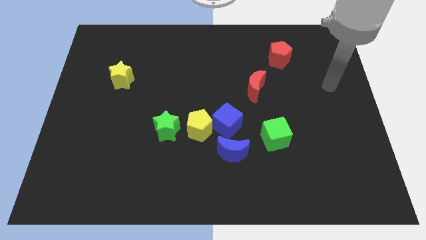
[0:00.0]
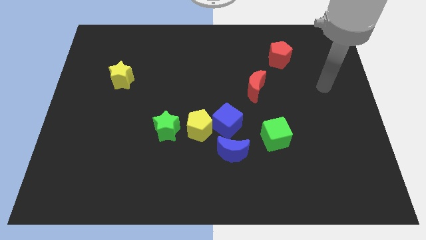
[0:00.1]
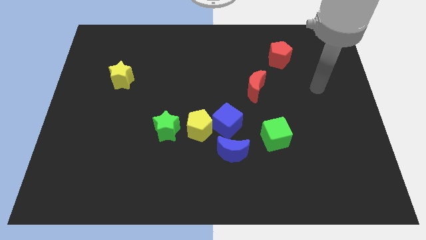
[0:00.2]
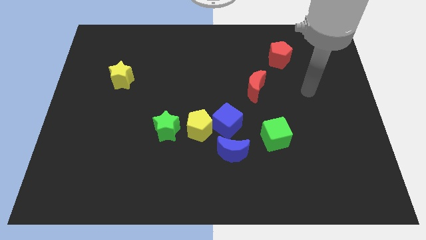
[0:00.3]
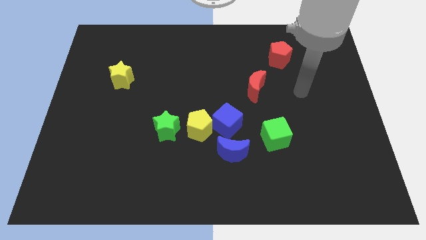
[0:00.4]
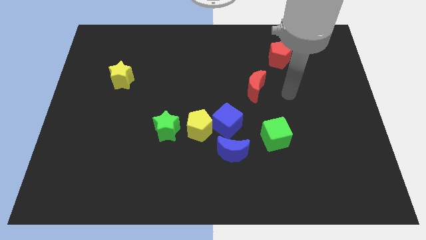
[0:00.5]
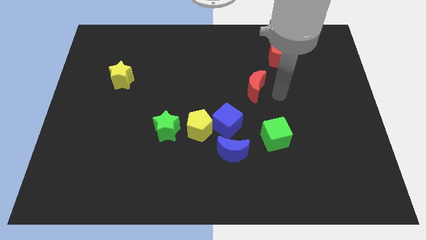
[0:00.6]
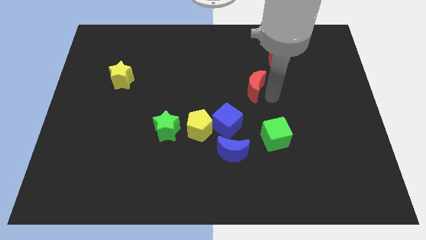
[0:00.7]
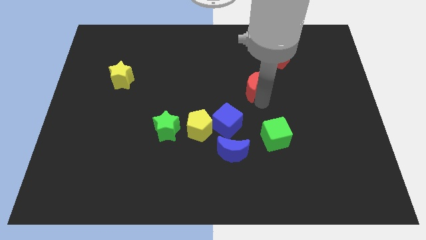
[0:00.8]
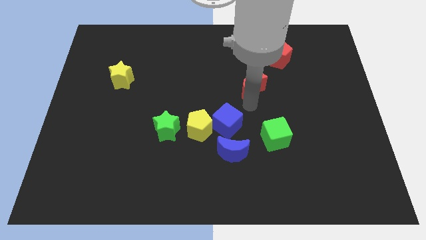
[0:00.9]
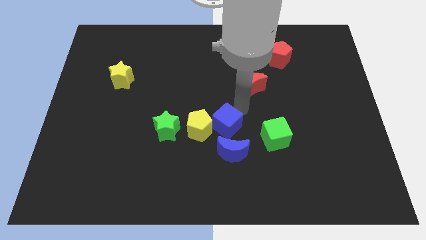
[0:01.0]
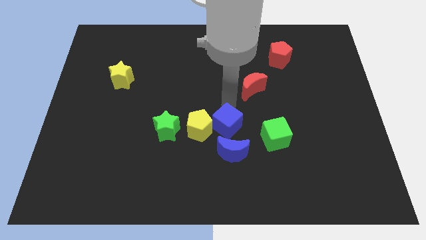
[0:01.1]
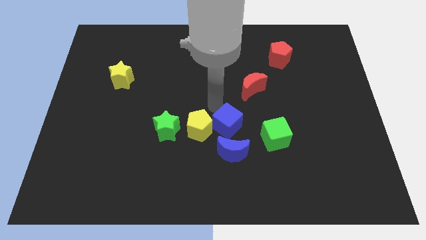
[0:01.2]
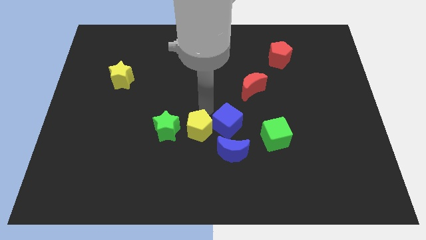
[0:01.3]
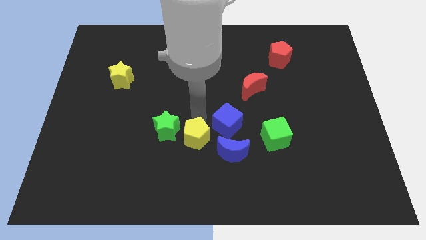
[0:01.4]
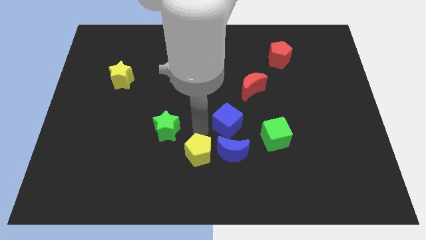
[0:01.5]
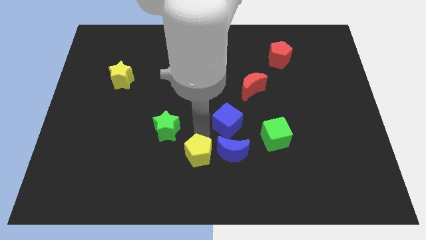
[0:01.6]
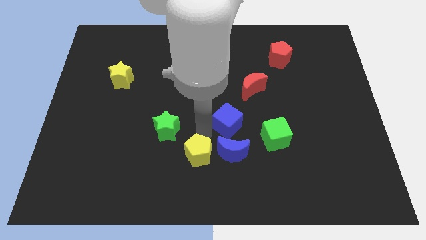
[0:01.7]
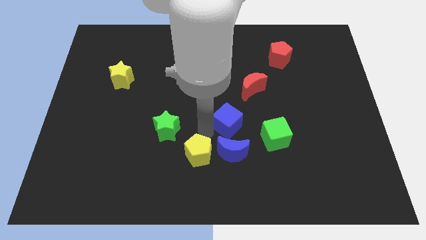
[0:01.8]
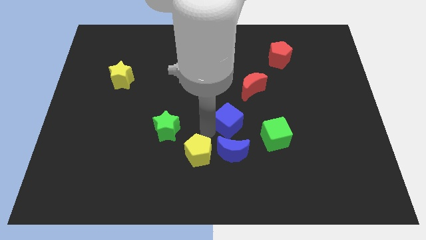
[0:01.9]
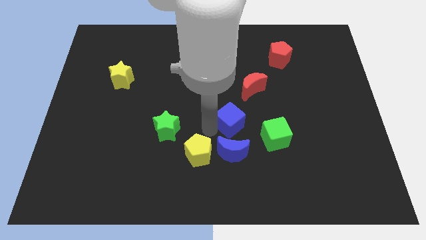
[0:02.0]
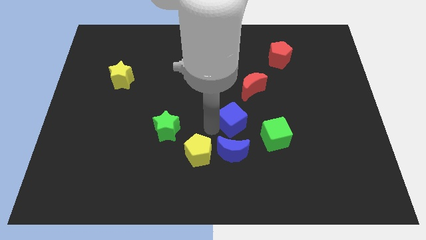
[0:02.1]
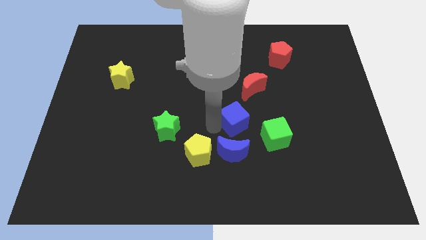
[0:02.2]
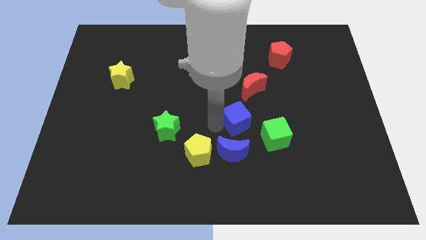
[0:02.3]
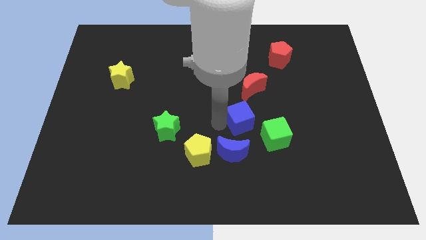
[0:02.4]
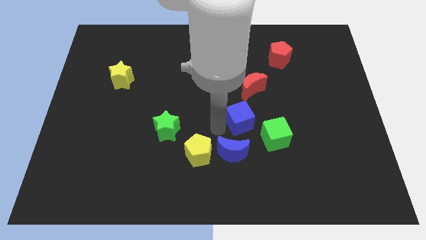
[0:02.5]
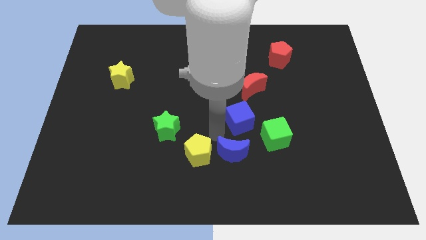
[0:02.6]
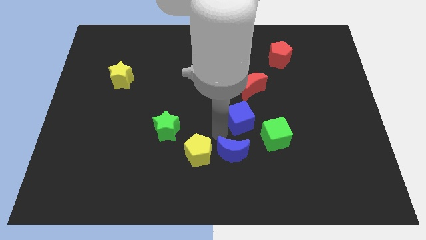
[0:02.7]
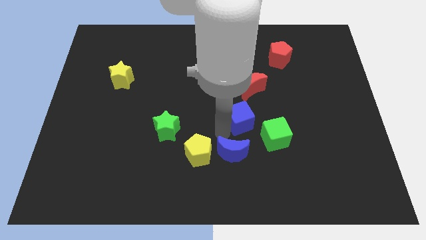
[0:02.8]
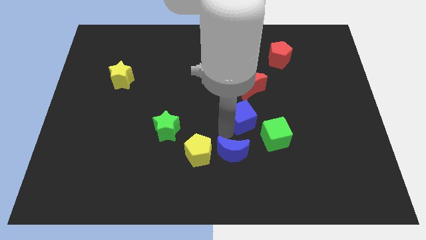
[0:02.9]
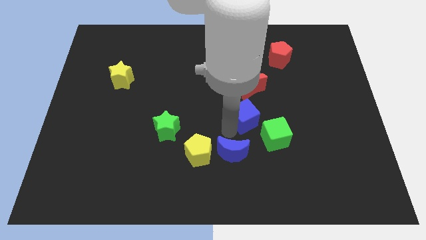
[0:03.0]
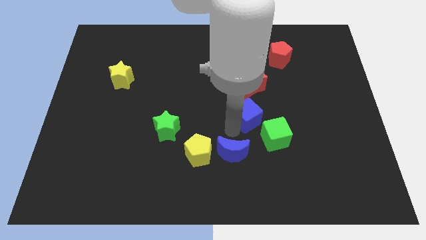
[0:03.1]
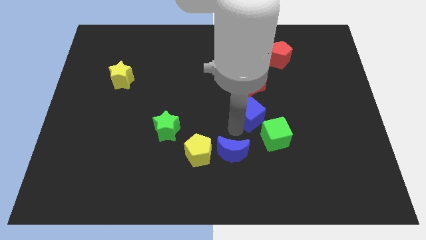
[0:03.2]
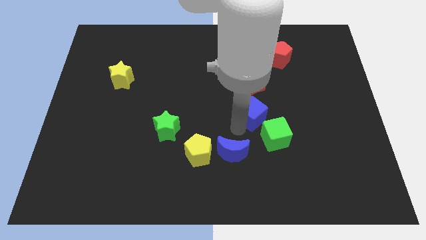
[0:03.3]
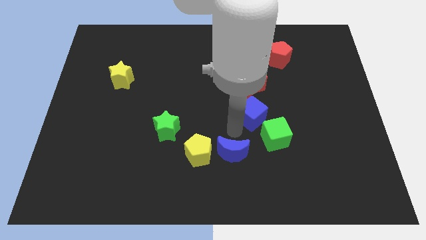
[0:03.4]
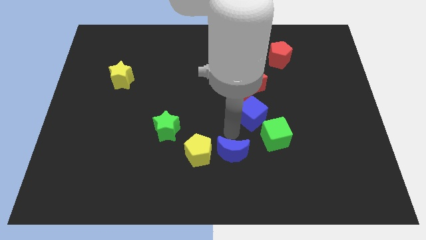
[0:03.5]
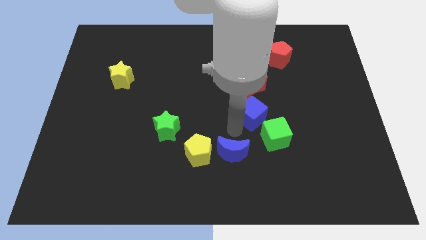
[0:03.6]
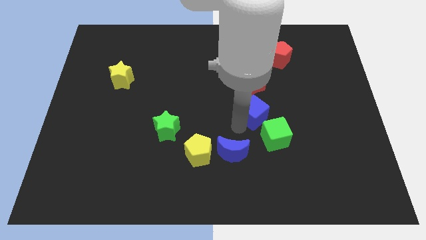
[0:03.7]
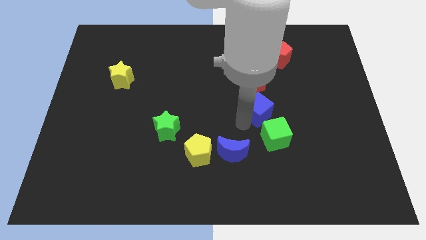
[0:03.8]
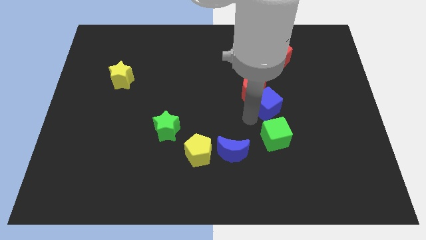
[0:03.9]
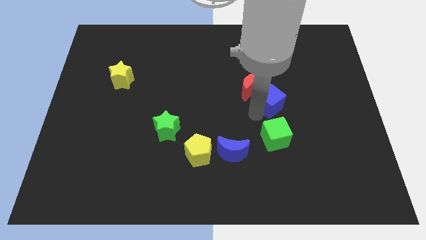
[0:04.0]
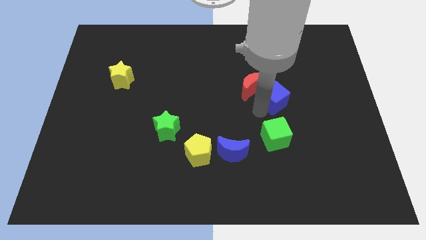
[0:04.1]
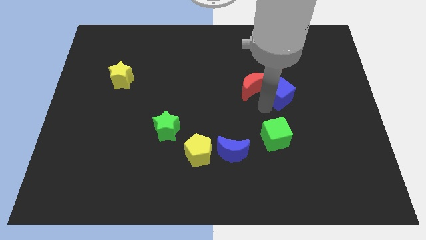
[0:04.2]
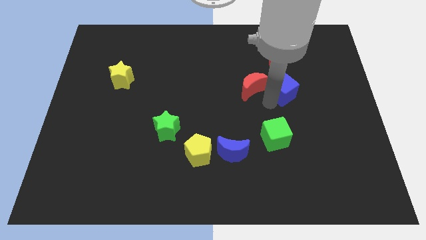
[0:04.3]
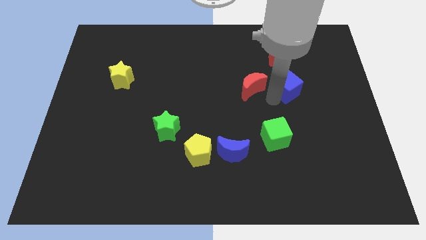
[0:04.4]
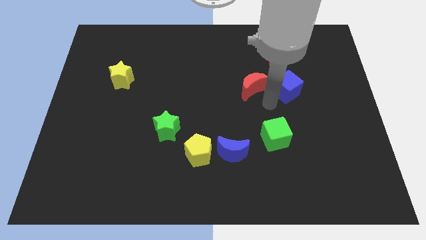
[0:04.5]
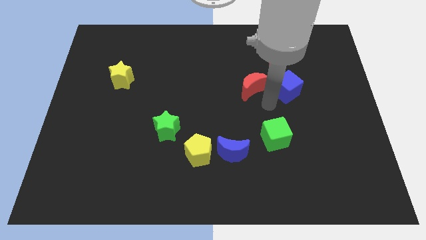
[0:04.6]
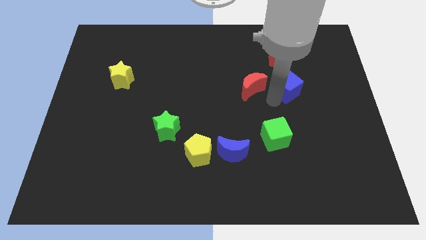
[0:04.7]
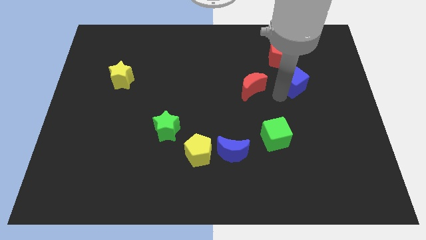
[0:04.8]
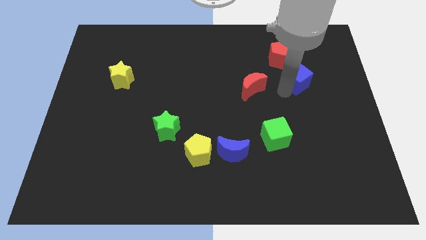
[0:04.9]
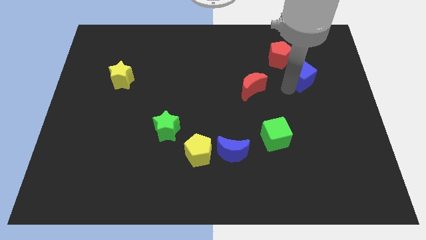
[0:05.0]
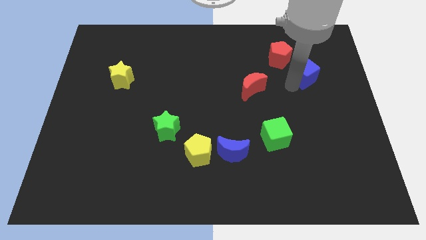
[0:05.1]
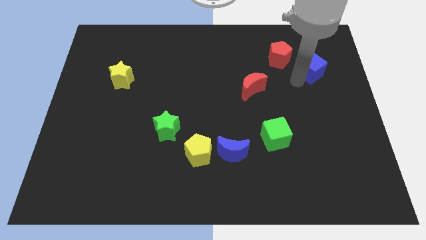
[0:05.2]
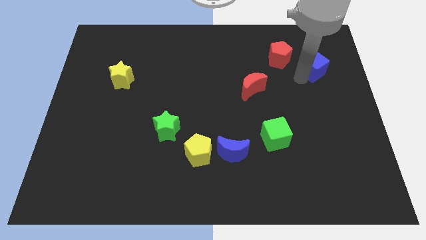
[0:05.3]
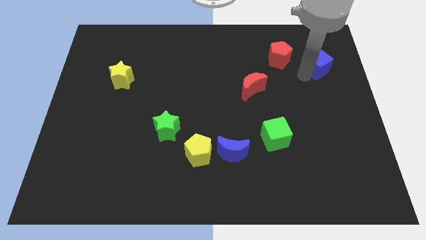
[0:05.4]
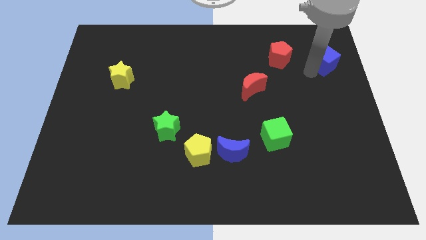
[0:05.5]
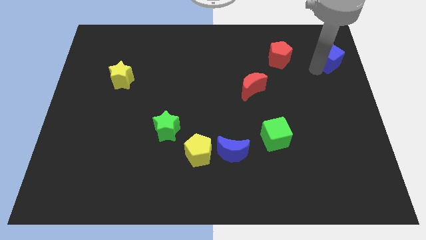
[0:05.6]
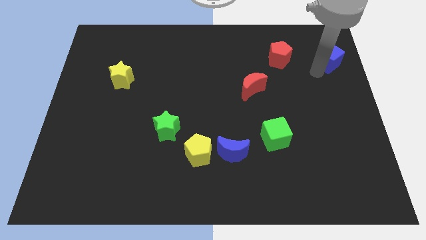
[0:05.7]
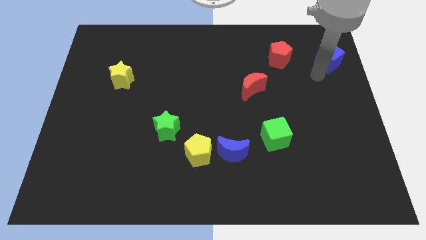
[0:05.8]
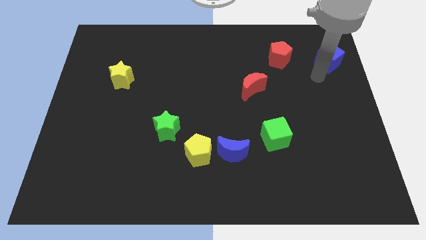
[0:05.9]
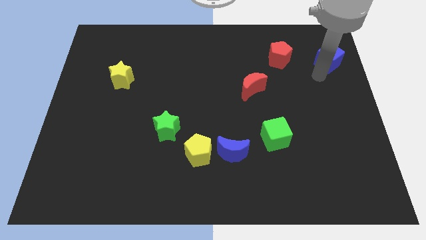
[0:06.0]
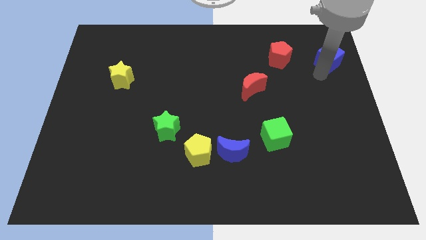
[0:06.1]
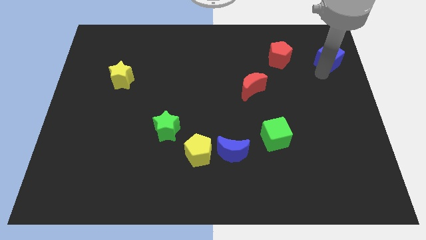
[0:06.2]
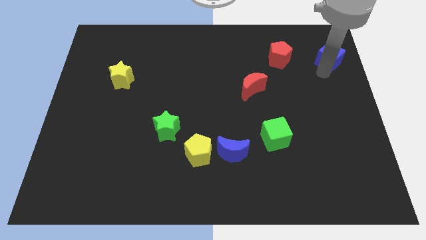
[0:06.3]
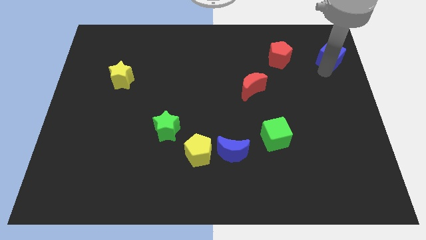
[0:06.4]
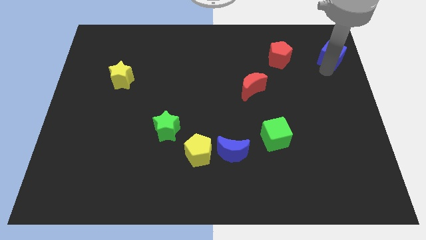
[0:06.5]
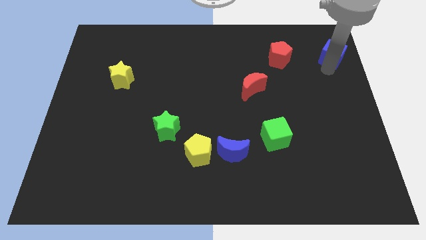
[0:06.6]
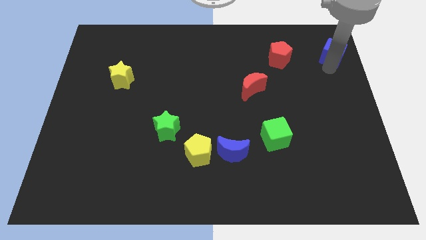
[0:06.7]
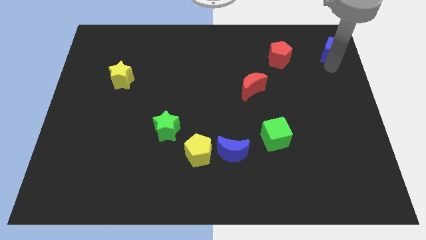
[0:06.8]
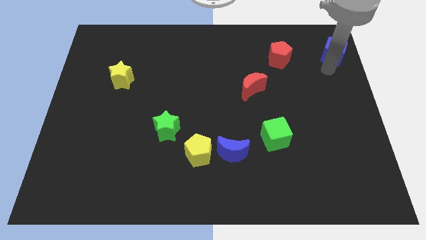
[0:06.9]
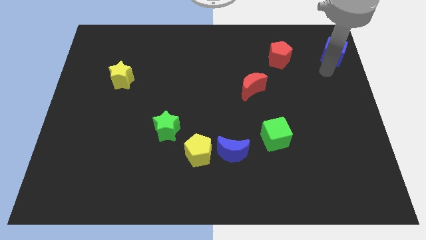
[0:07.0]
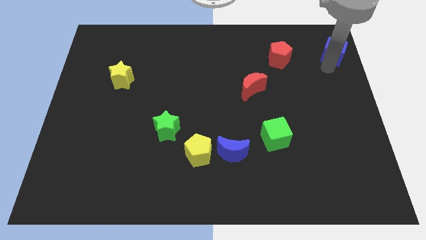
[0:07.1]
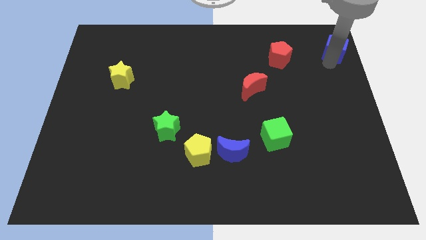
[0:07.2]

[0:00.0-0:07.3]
slide the blue cube to the upper right corner
